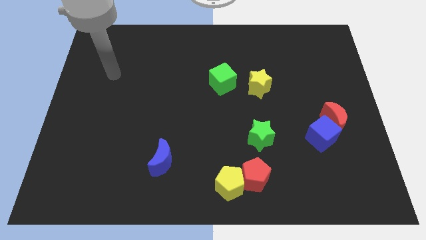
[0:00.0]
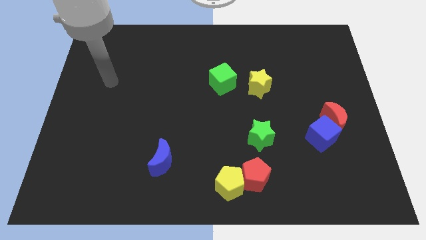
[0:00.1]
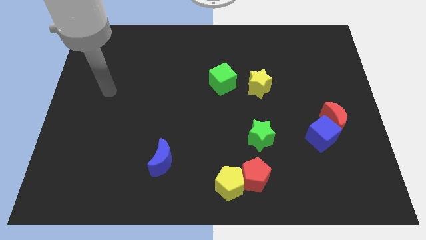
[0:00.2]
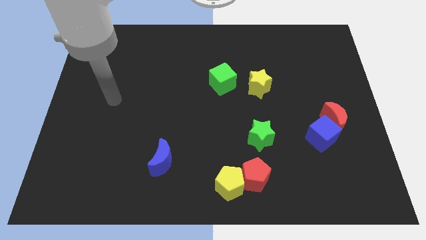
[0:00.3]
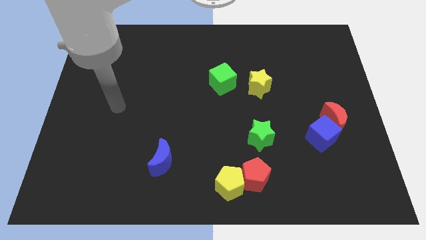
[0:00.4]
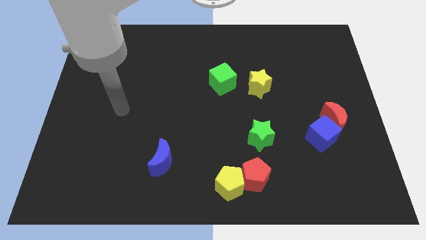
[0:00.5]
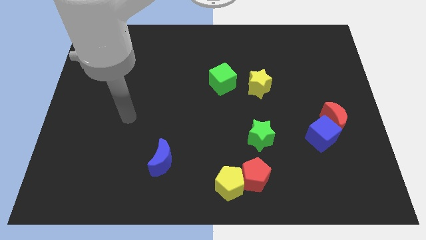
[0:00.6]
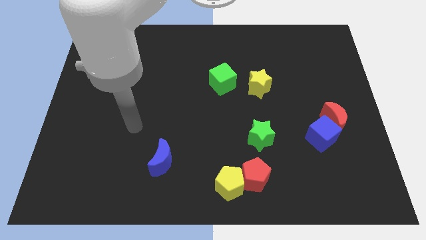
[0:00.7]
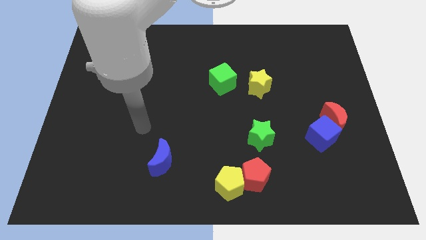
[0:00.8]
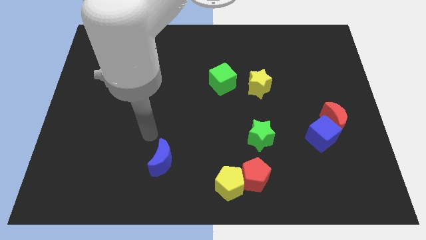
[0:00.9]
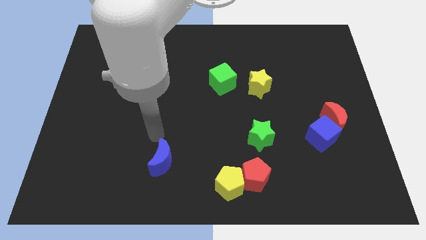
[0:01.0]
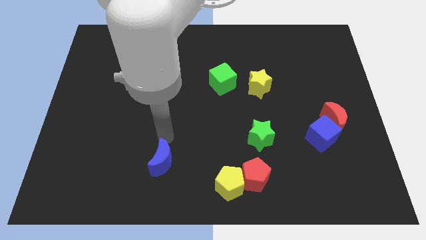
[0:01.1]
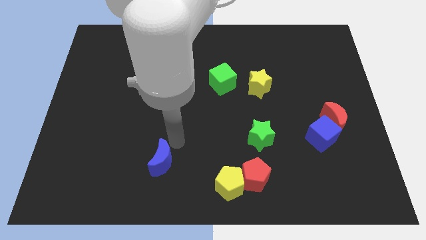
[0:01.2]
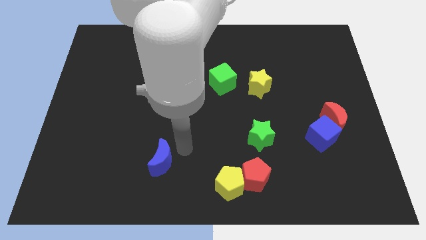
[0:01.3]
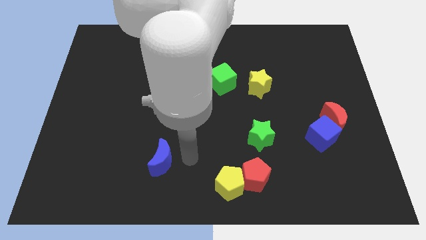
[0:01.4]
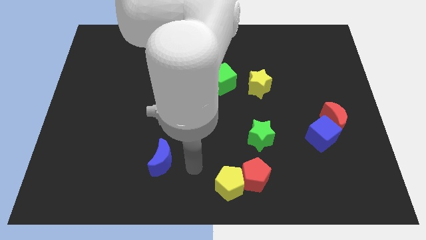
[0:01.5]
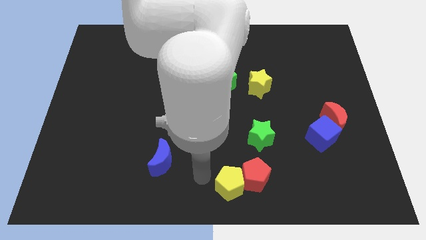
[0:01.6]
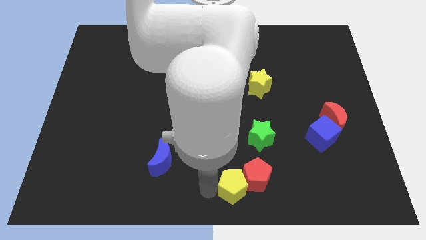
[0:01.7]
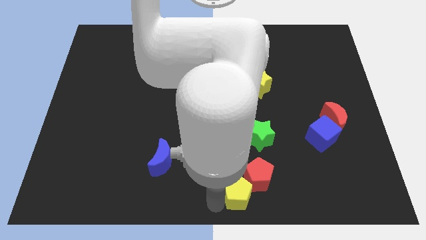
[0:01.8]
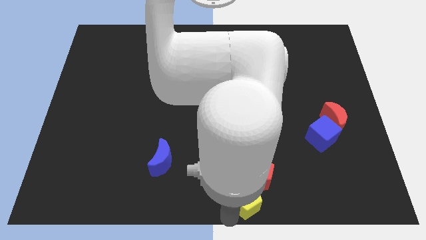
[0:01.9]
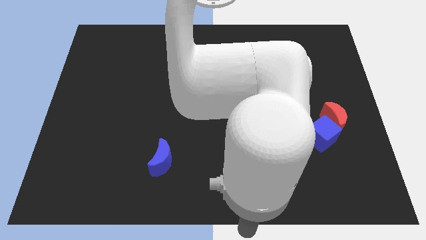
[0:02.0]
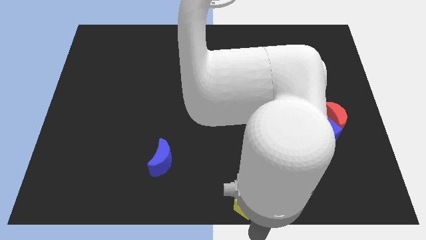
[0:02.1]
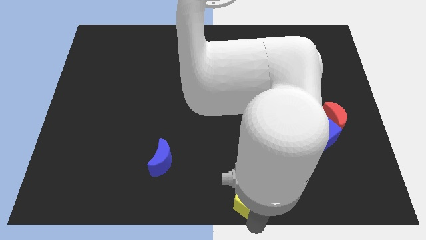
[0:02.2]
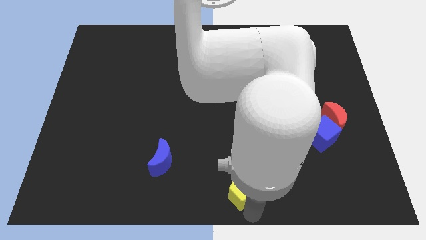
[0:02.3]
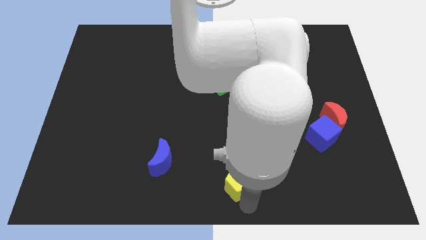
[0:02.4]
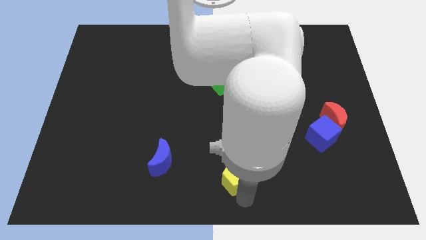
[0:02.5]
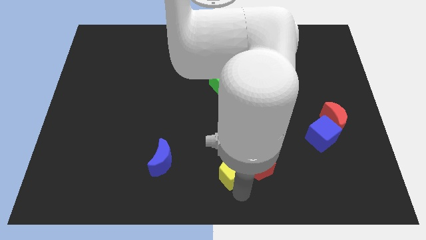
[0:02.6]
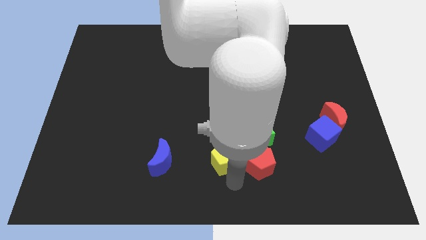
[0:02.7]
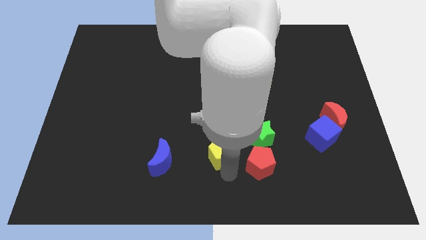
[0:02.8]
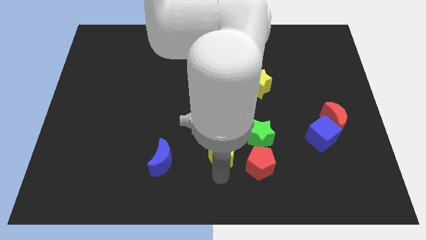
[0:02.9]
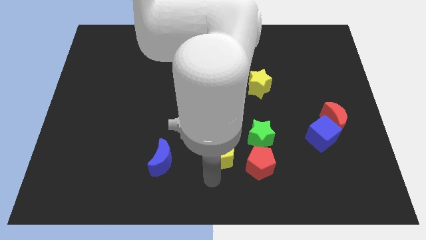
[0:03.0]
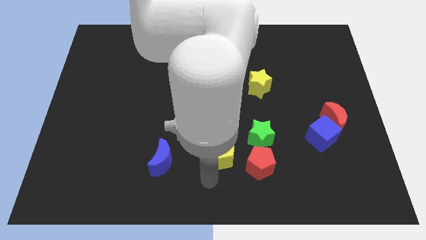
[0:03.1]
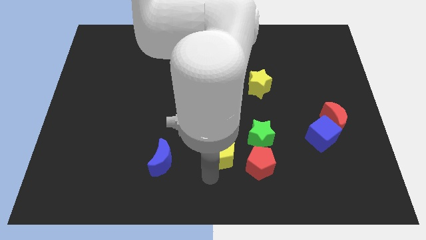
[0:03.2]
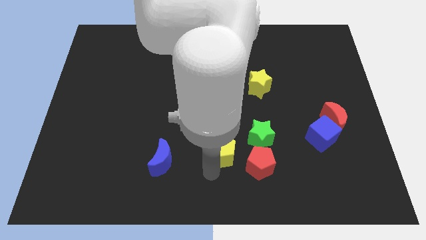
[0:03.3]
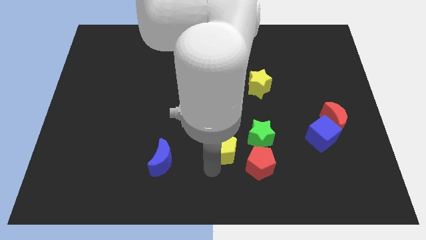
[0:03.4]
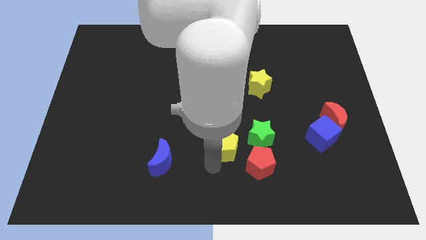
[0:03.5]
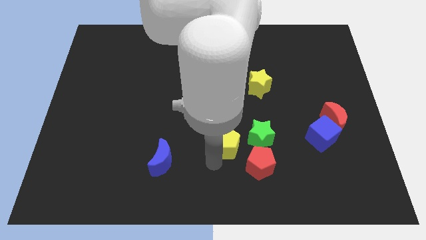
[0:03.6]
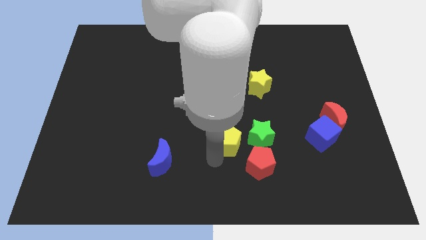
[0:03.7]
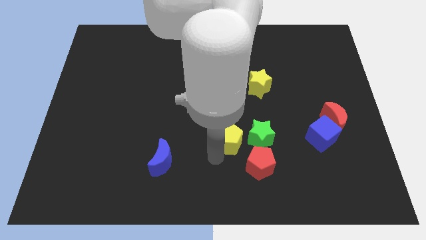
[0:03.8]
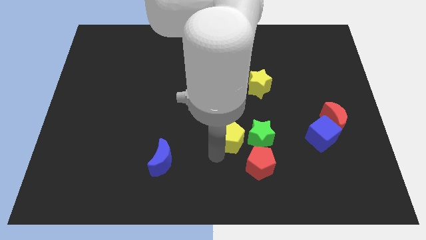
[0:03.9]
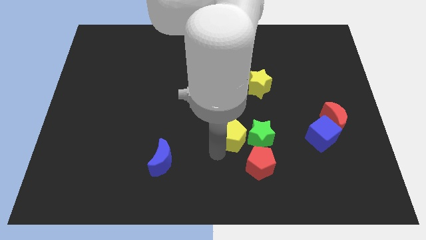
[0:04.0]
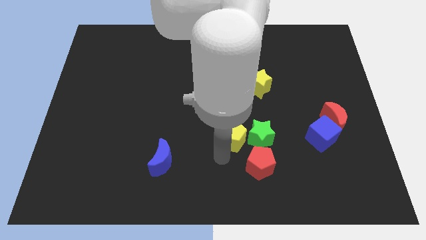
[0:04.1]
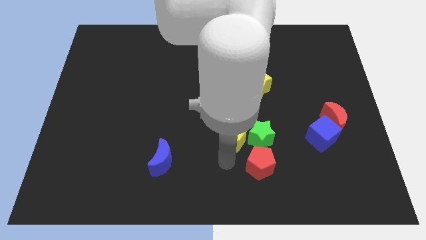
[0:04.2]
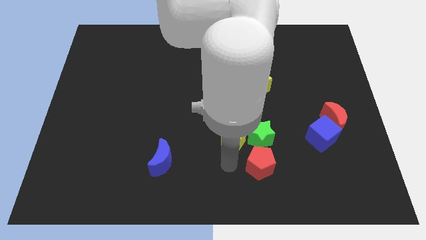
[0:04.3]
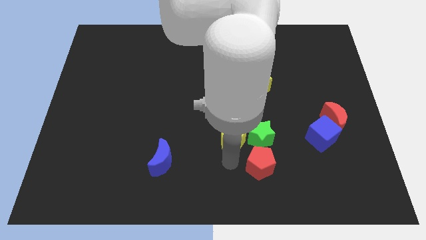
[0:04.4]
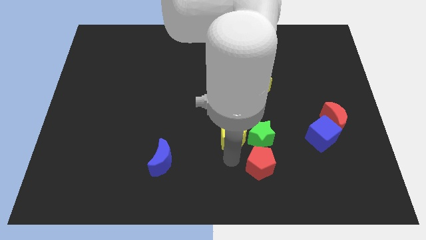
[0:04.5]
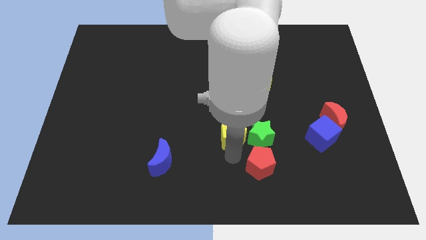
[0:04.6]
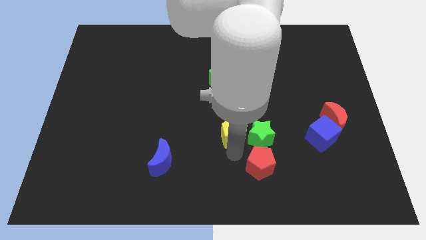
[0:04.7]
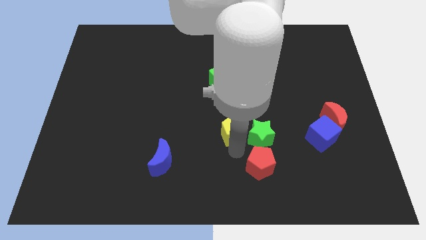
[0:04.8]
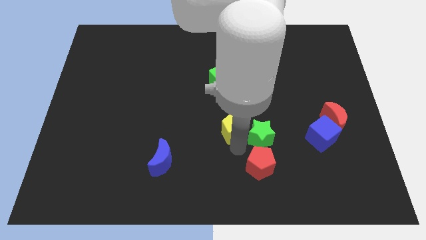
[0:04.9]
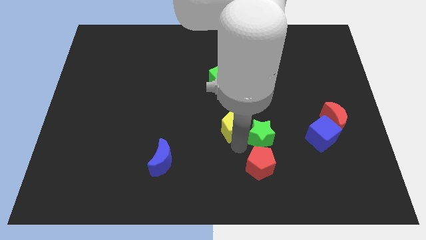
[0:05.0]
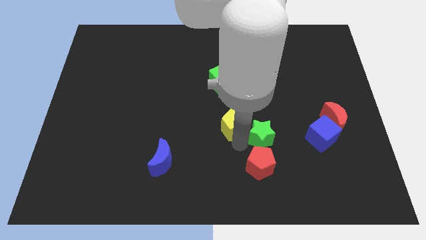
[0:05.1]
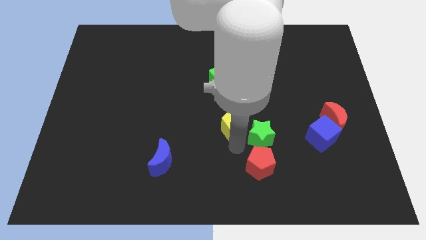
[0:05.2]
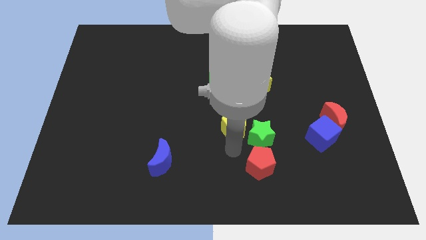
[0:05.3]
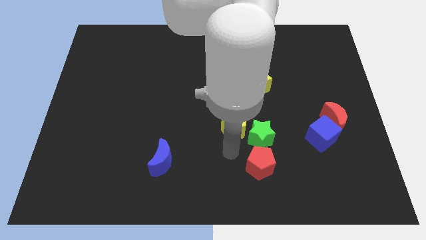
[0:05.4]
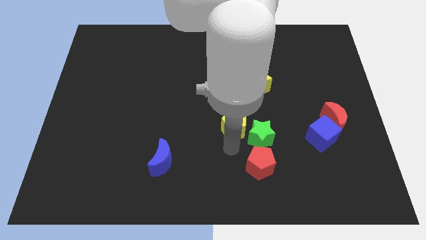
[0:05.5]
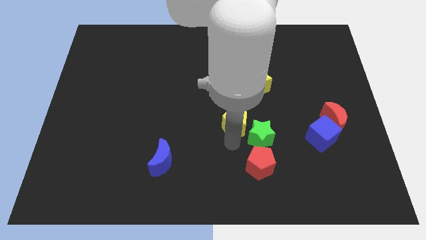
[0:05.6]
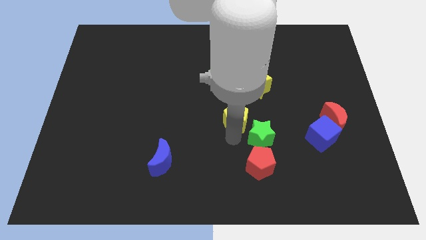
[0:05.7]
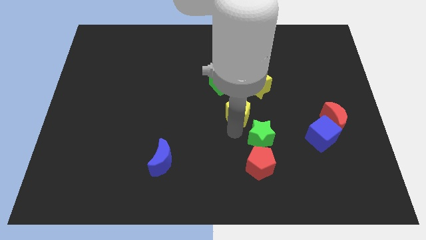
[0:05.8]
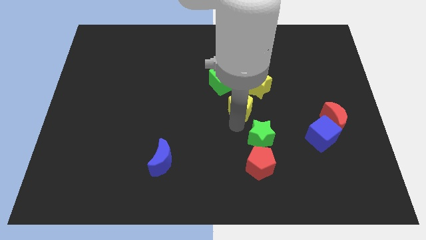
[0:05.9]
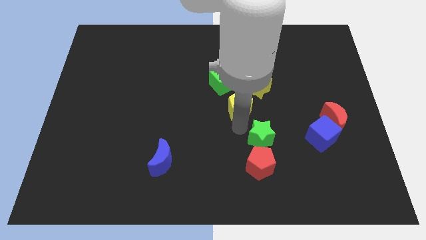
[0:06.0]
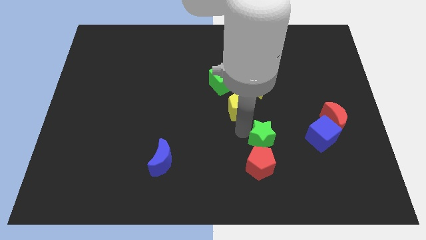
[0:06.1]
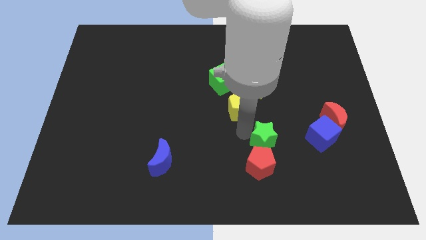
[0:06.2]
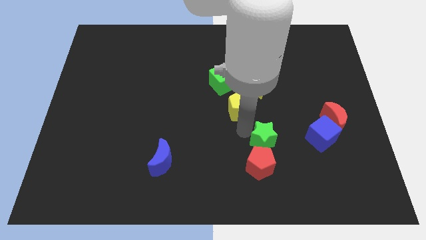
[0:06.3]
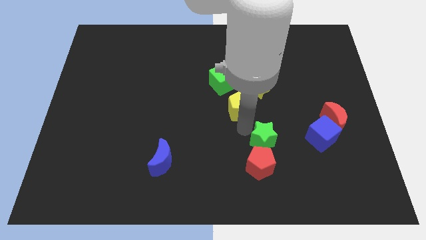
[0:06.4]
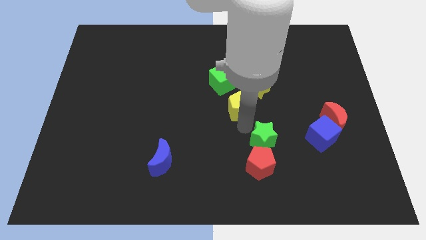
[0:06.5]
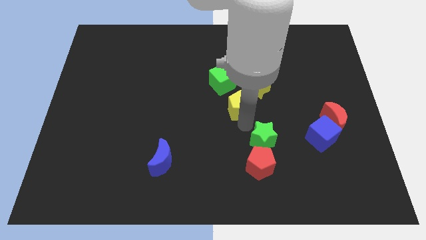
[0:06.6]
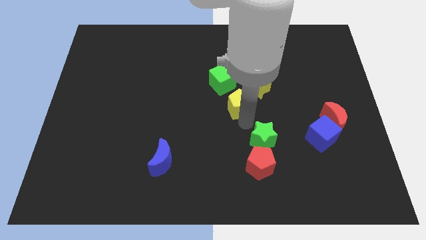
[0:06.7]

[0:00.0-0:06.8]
move the yellow pentagon up

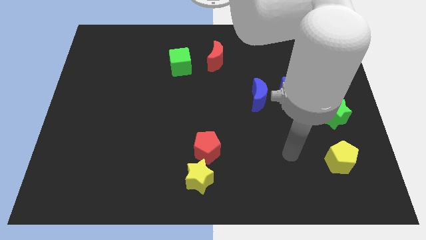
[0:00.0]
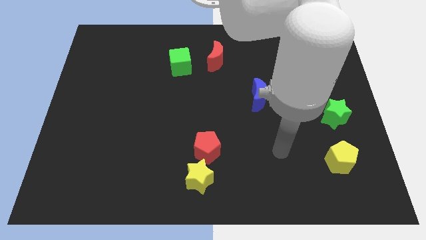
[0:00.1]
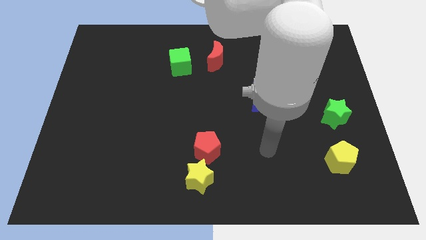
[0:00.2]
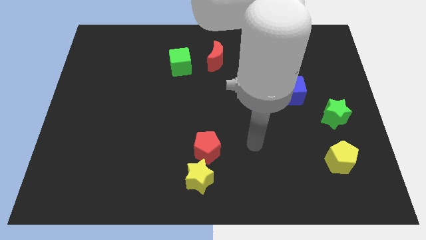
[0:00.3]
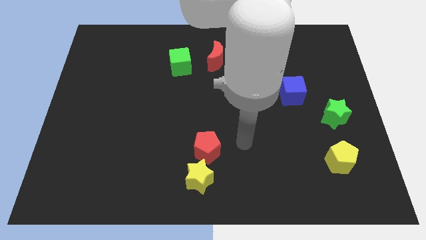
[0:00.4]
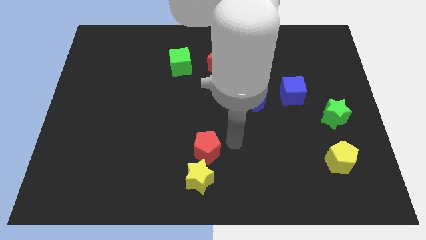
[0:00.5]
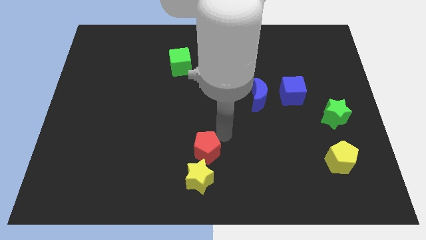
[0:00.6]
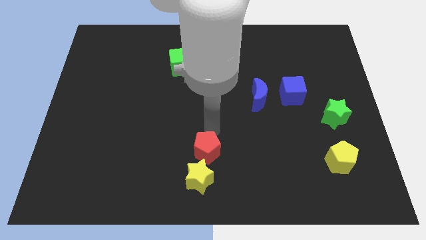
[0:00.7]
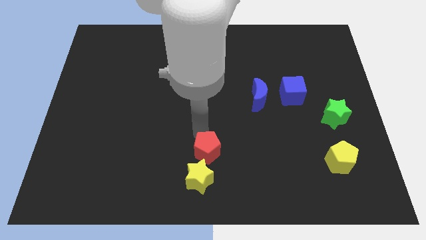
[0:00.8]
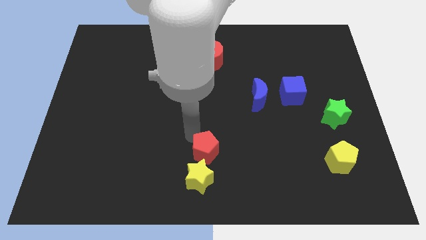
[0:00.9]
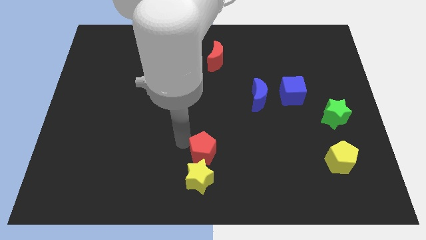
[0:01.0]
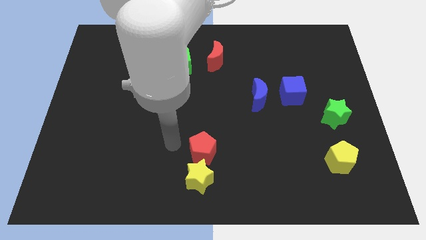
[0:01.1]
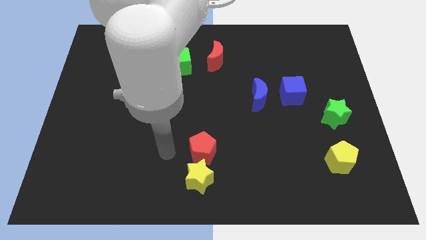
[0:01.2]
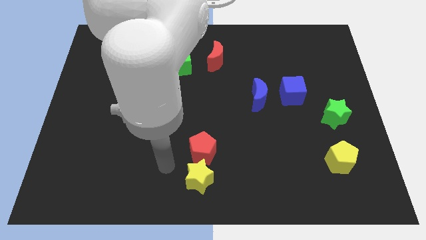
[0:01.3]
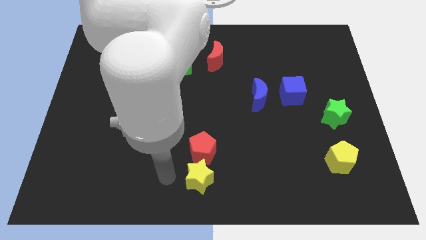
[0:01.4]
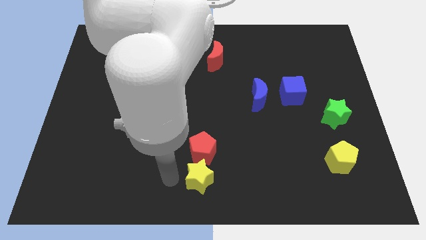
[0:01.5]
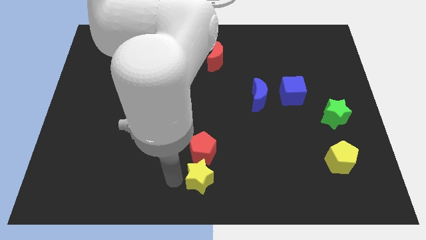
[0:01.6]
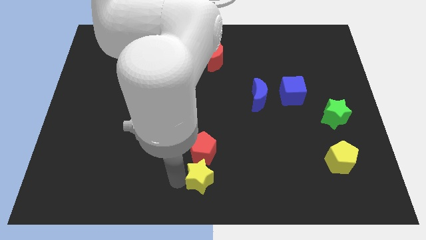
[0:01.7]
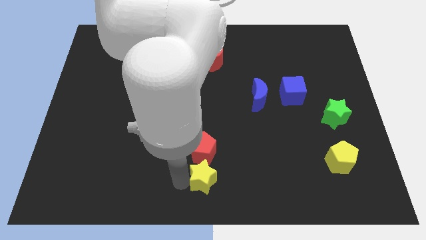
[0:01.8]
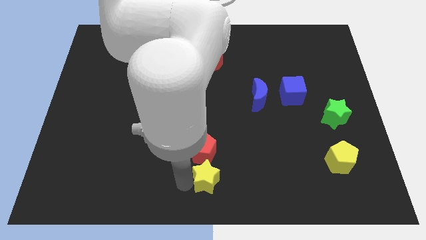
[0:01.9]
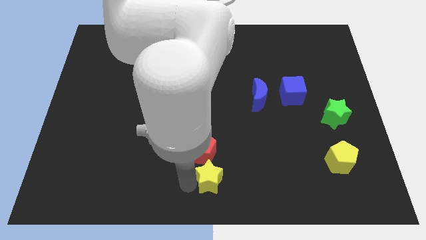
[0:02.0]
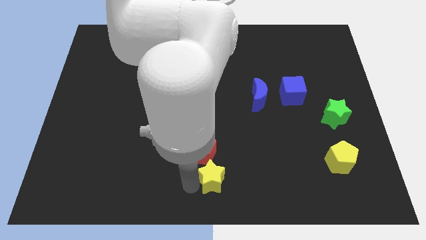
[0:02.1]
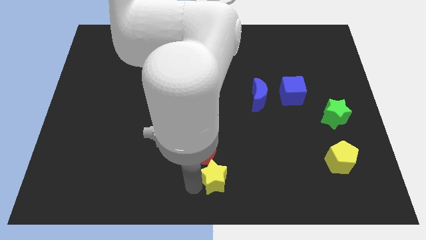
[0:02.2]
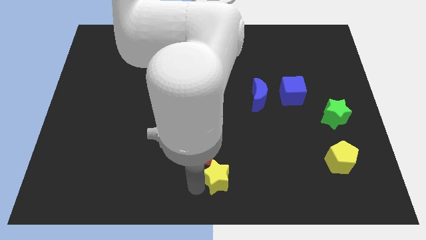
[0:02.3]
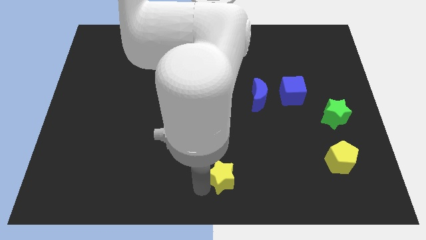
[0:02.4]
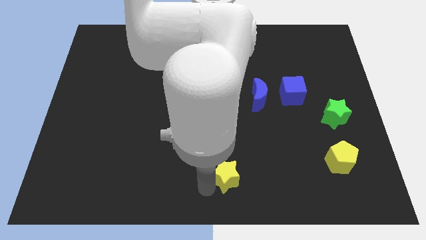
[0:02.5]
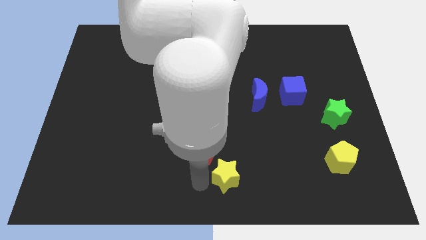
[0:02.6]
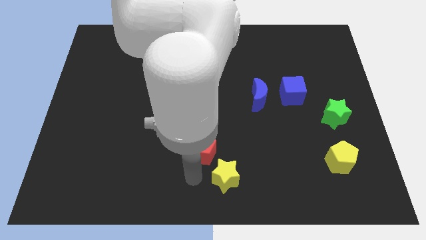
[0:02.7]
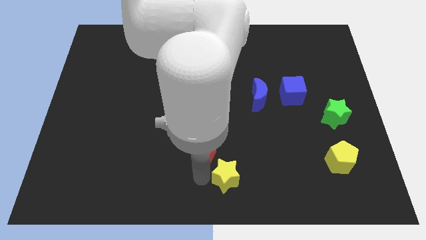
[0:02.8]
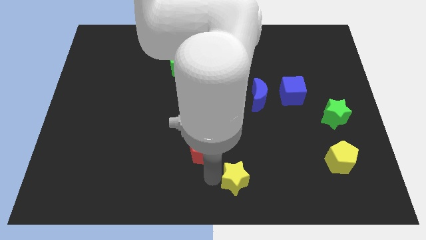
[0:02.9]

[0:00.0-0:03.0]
move the yellow star right a little
